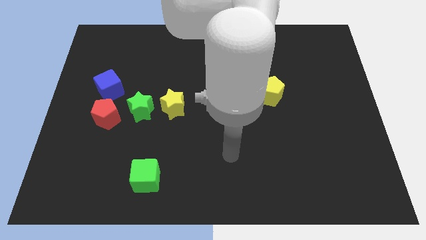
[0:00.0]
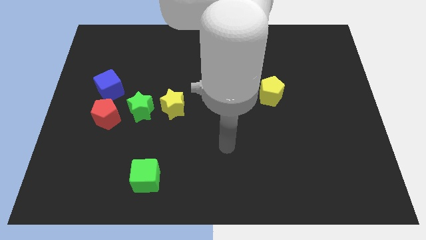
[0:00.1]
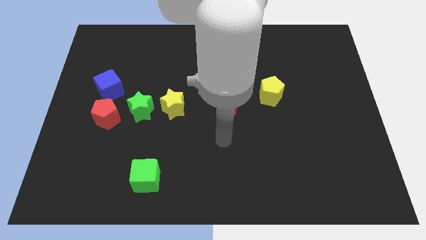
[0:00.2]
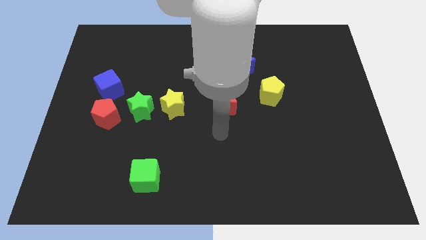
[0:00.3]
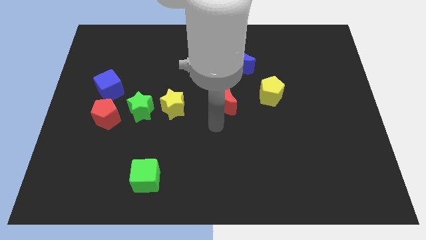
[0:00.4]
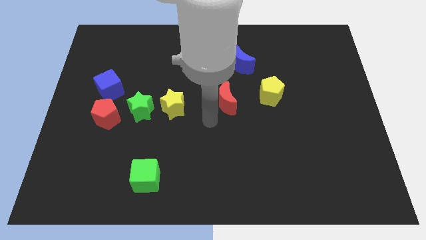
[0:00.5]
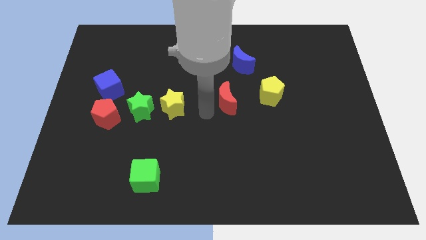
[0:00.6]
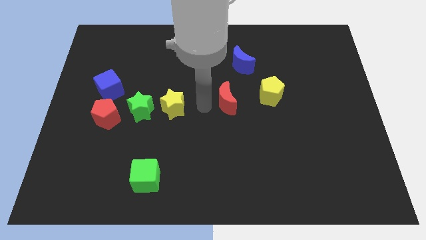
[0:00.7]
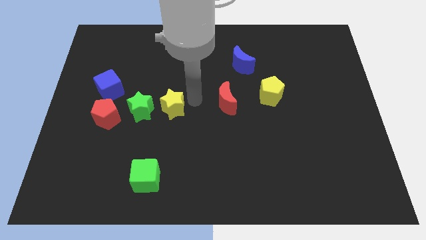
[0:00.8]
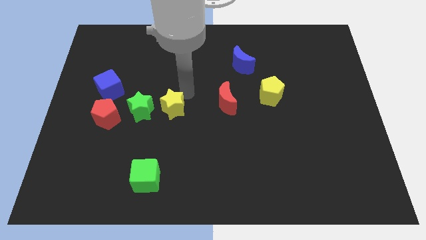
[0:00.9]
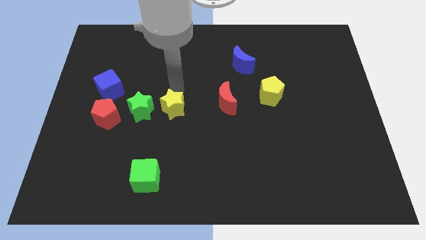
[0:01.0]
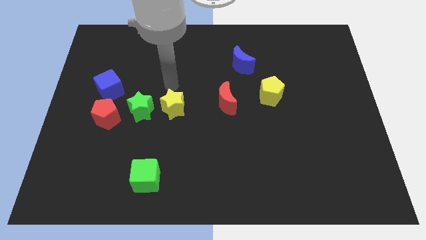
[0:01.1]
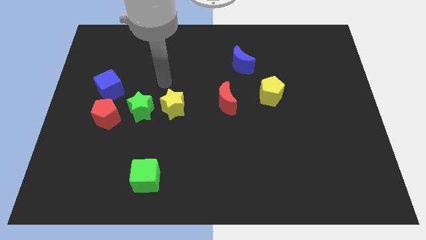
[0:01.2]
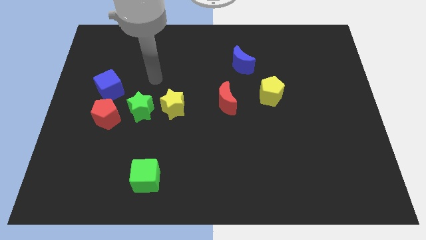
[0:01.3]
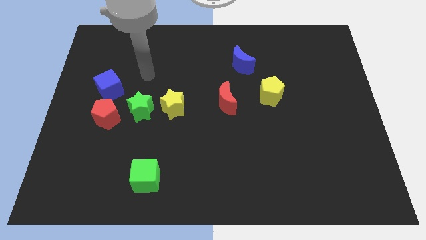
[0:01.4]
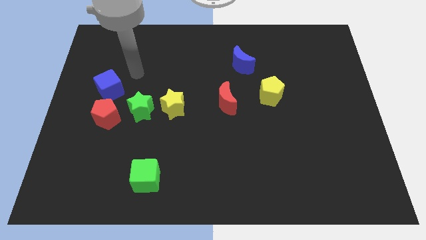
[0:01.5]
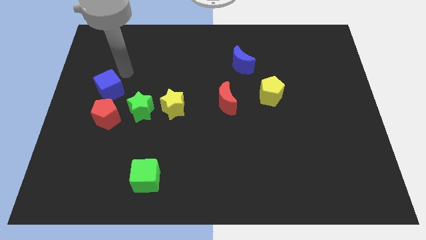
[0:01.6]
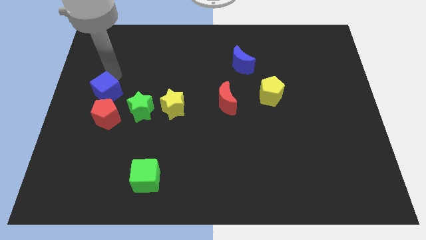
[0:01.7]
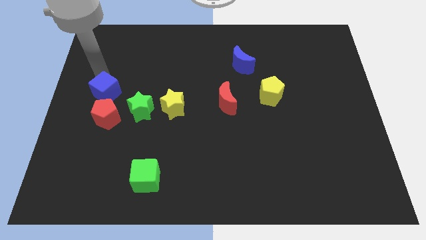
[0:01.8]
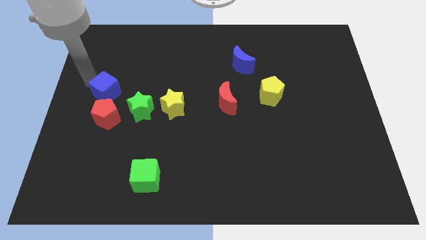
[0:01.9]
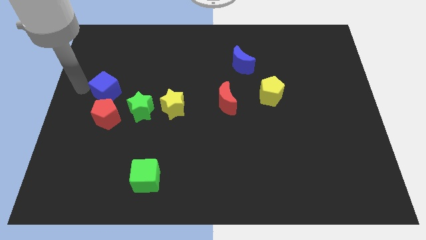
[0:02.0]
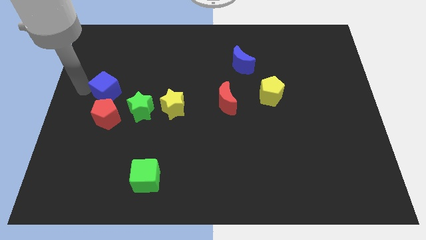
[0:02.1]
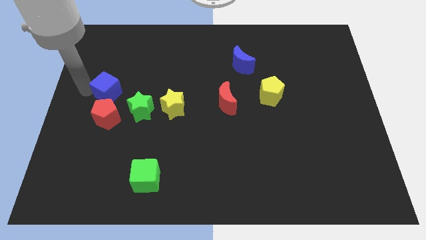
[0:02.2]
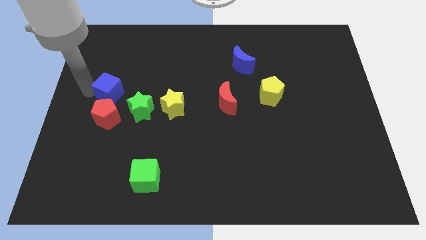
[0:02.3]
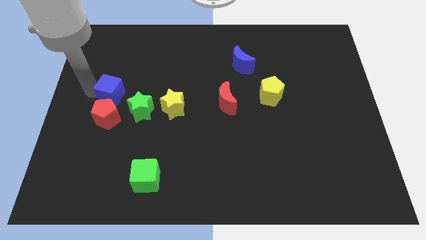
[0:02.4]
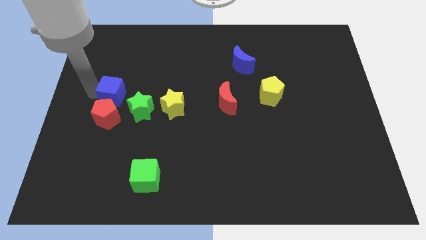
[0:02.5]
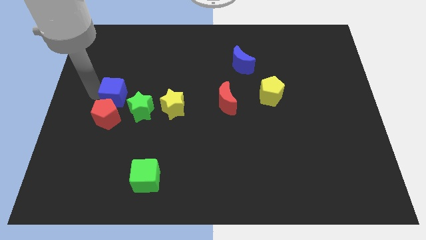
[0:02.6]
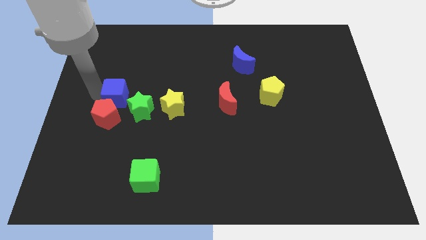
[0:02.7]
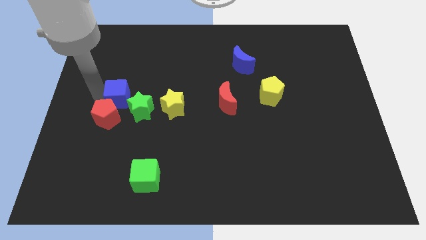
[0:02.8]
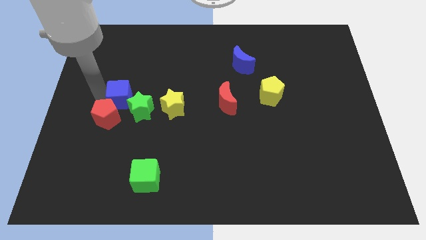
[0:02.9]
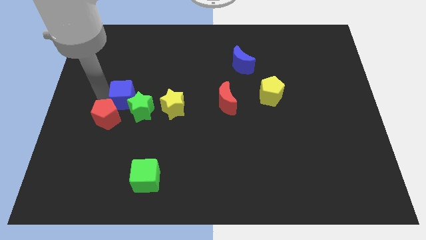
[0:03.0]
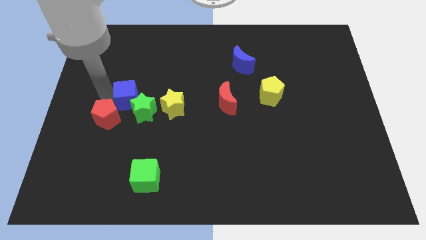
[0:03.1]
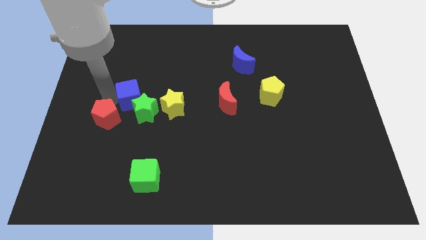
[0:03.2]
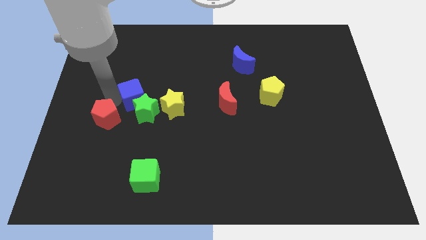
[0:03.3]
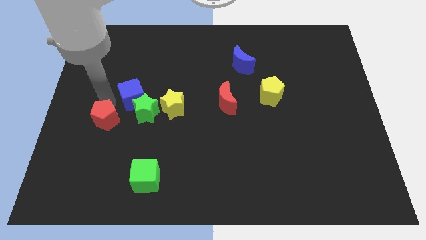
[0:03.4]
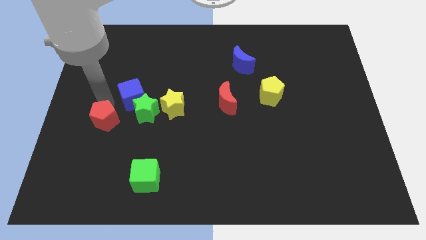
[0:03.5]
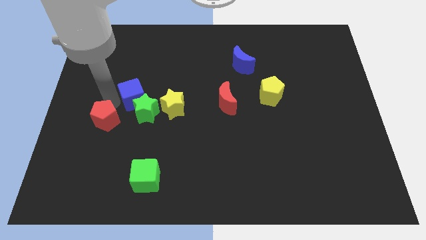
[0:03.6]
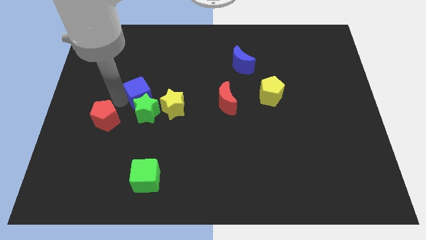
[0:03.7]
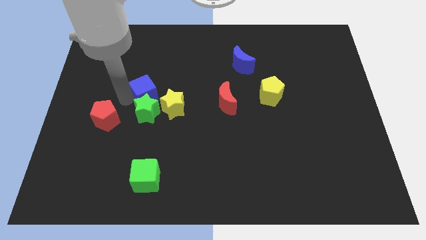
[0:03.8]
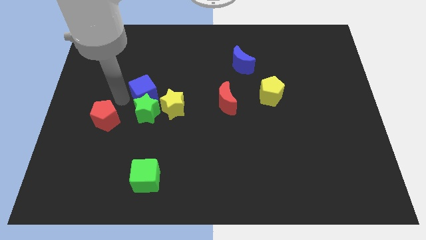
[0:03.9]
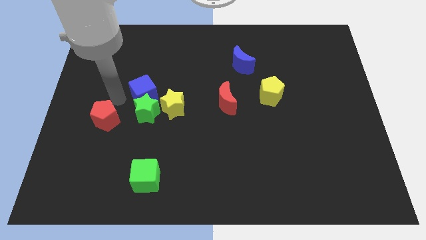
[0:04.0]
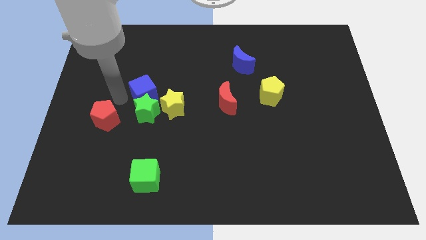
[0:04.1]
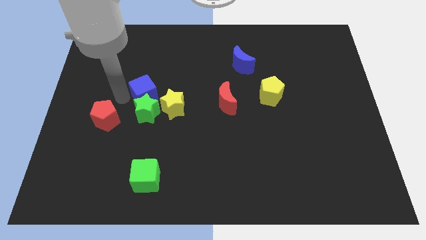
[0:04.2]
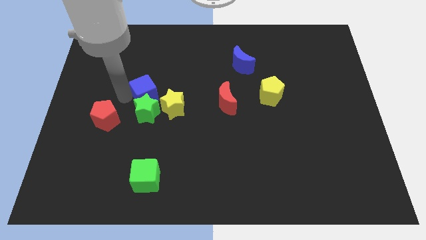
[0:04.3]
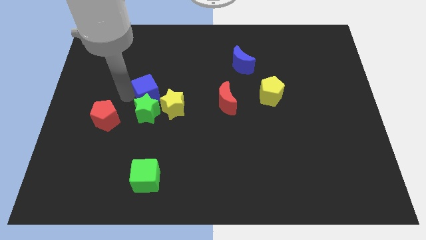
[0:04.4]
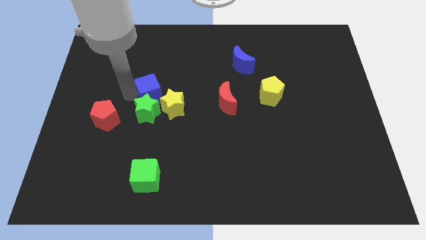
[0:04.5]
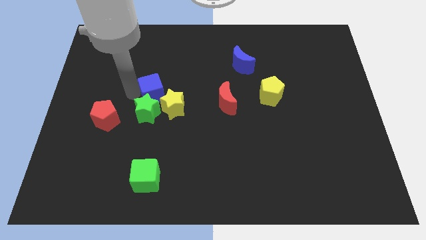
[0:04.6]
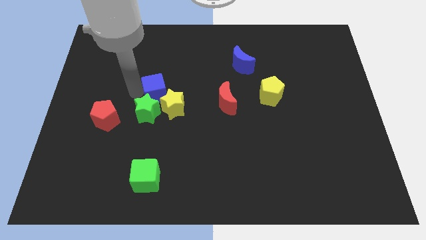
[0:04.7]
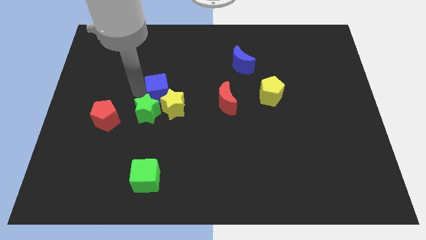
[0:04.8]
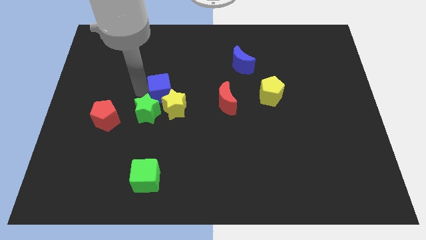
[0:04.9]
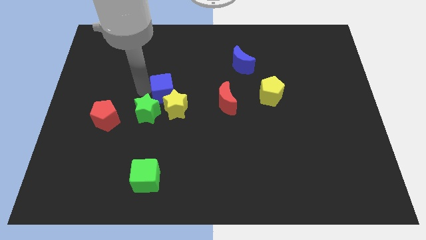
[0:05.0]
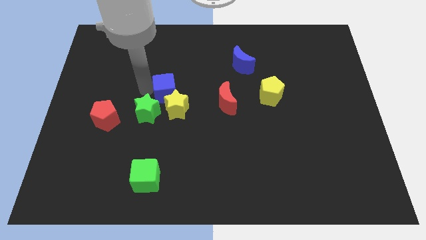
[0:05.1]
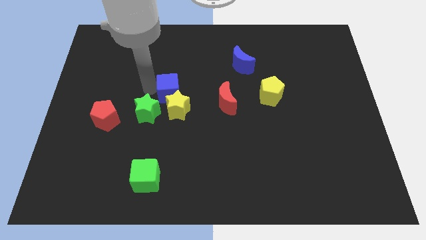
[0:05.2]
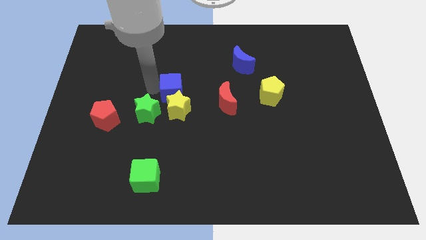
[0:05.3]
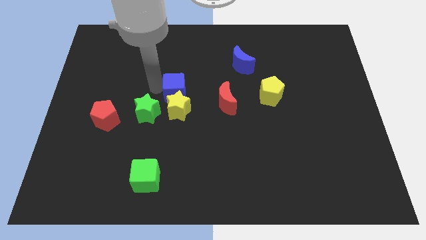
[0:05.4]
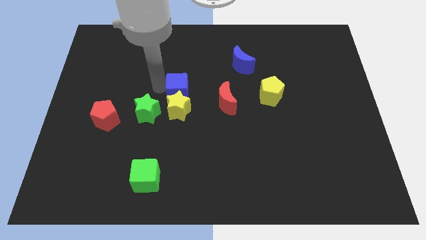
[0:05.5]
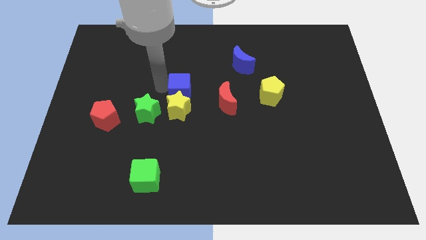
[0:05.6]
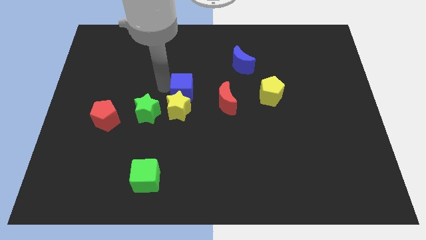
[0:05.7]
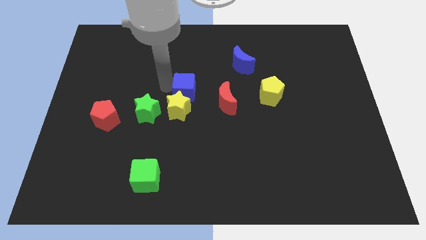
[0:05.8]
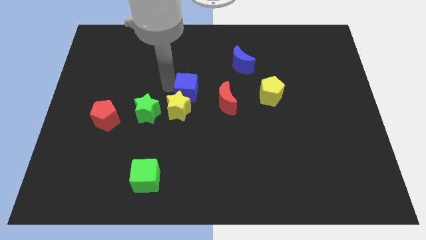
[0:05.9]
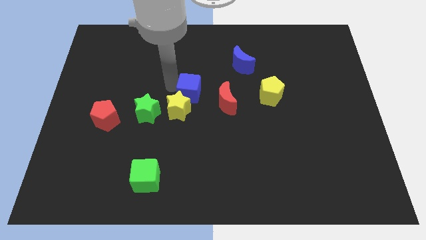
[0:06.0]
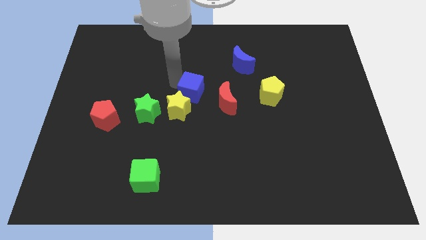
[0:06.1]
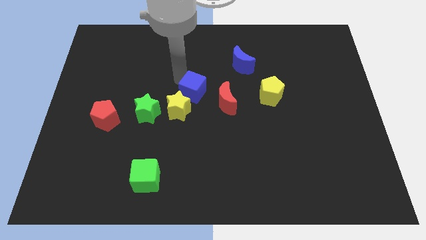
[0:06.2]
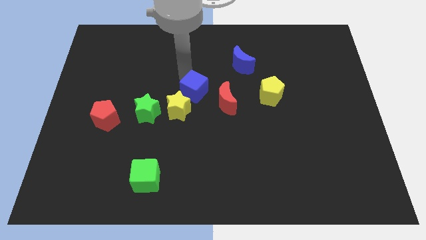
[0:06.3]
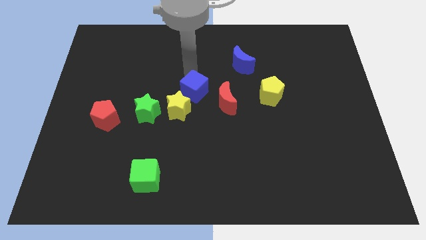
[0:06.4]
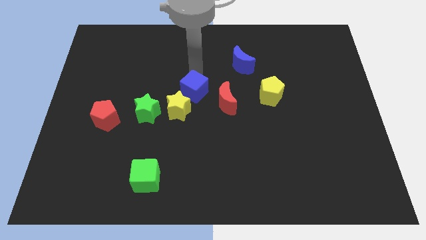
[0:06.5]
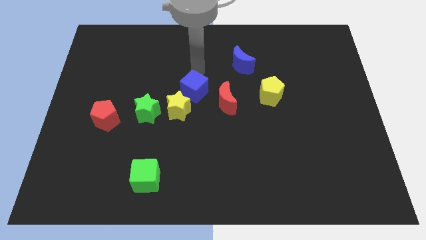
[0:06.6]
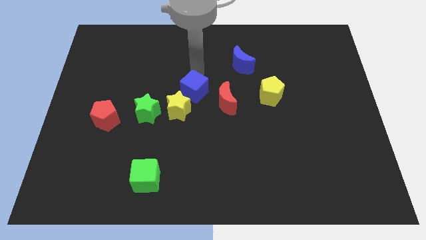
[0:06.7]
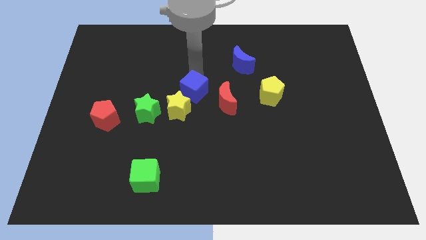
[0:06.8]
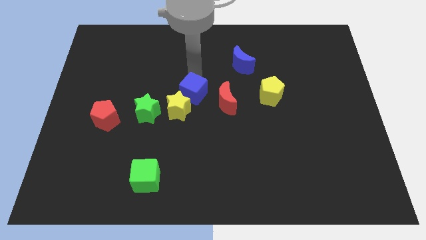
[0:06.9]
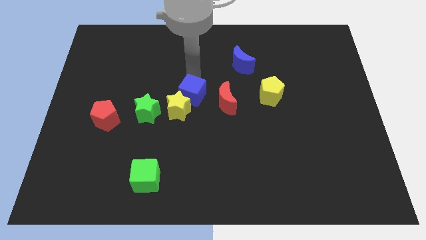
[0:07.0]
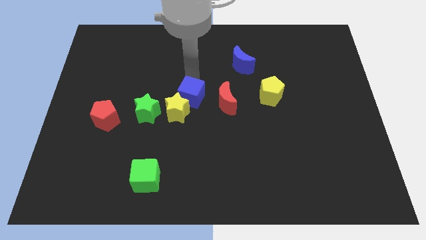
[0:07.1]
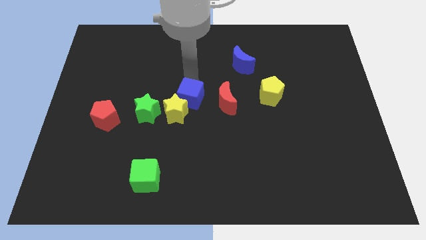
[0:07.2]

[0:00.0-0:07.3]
push the blue cube right of the green star
